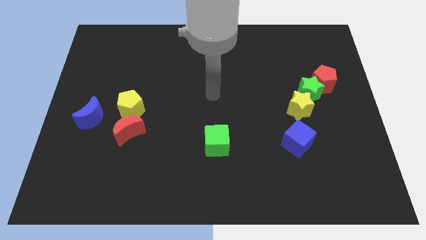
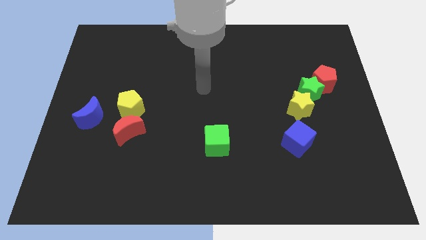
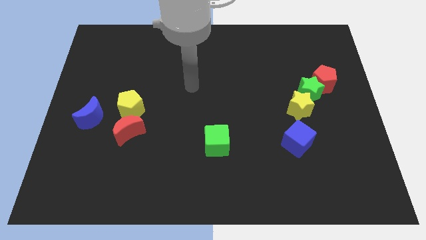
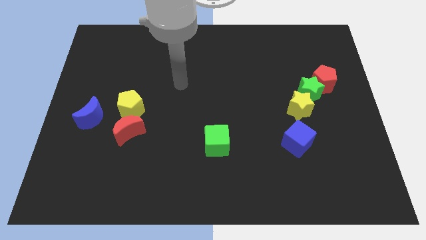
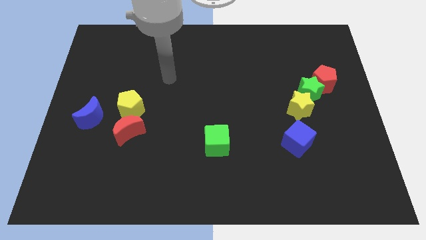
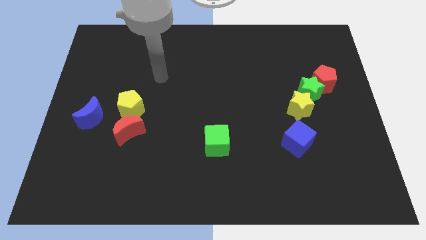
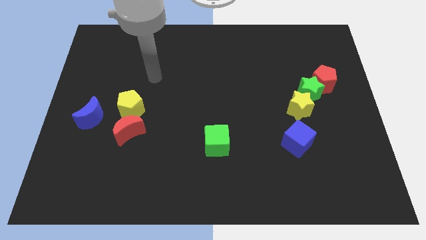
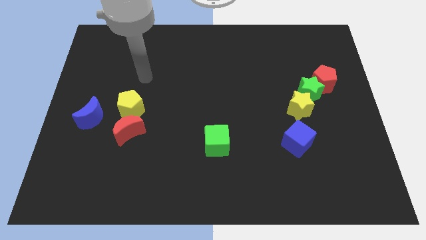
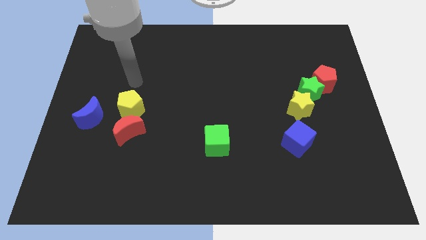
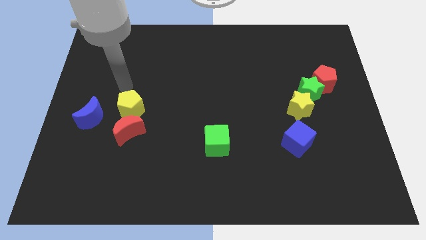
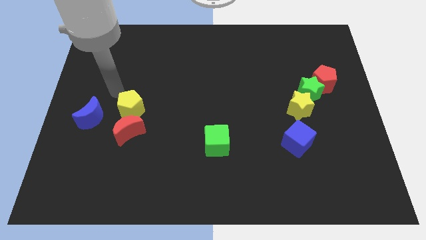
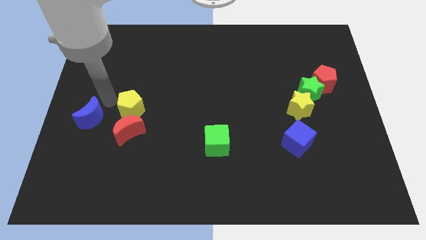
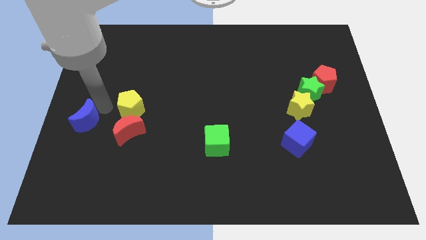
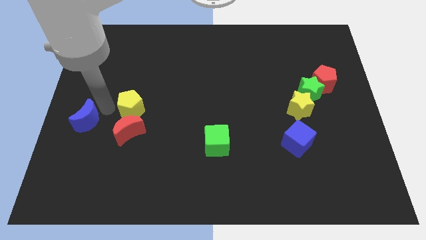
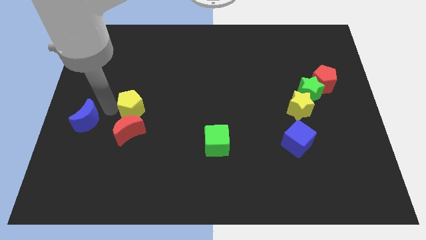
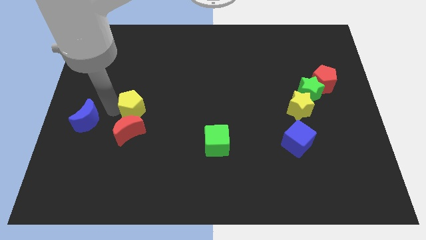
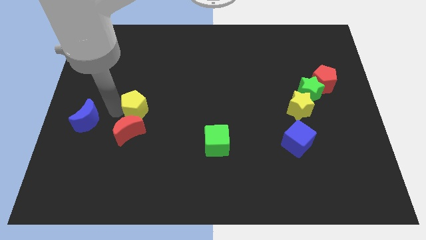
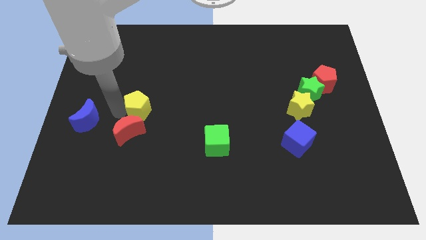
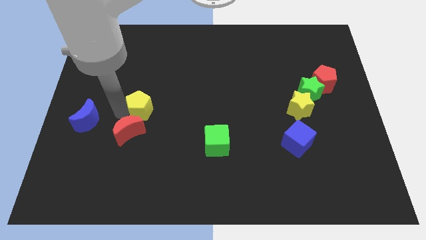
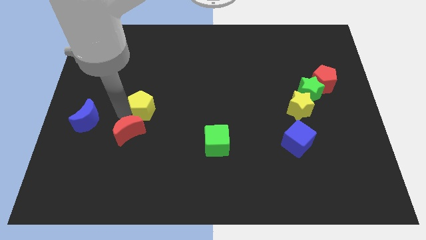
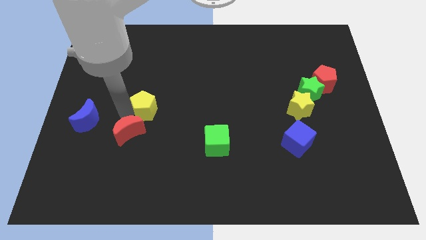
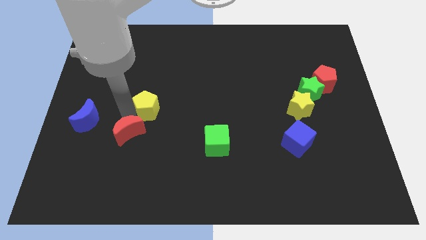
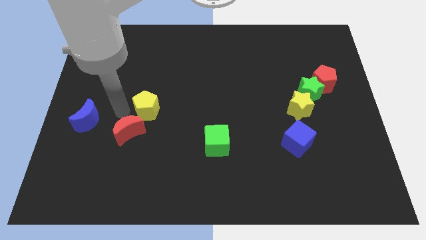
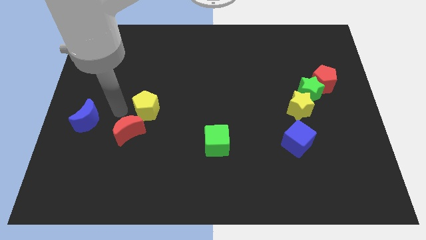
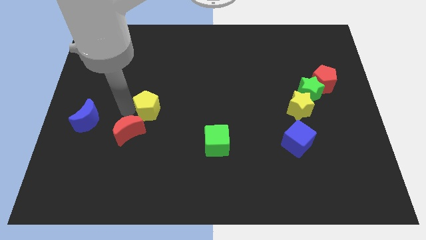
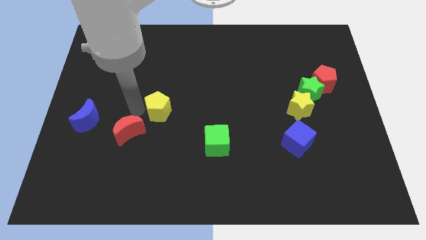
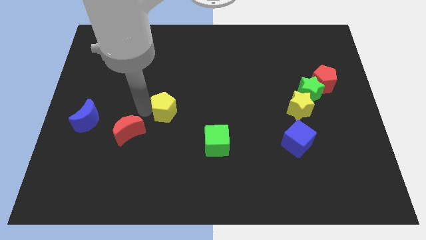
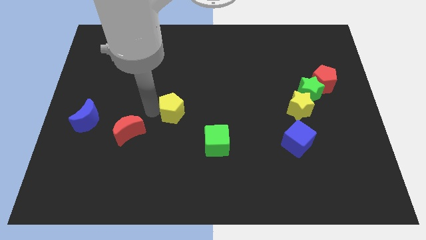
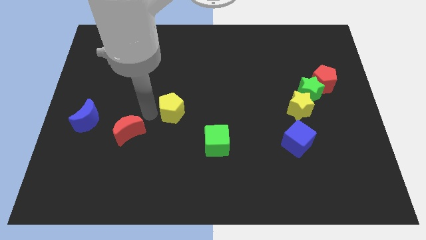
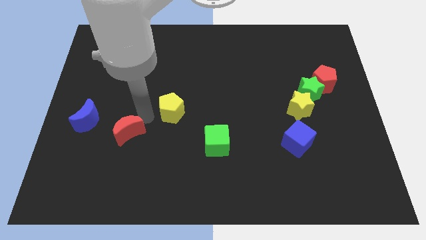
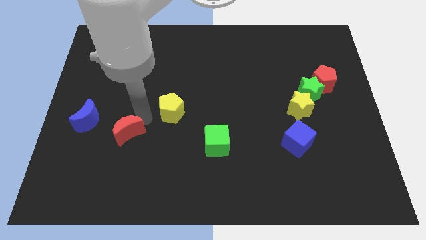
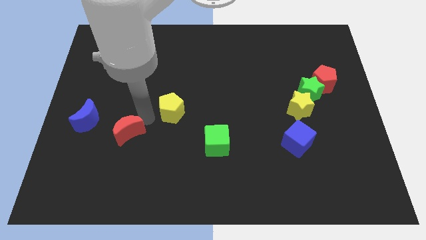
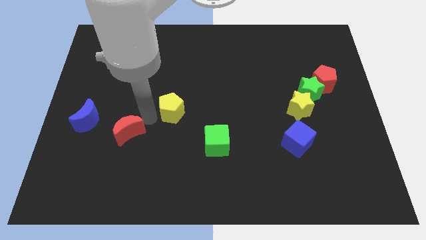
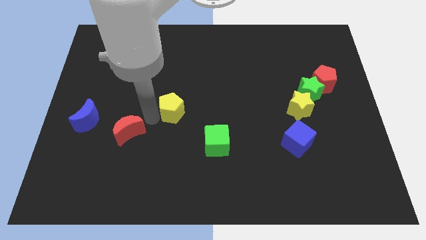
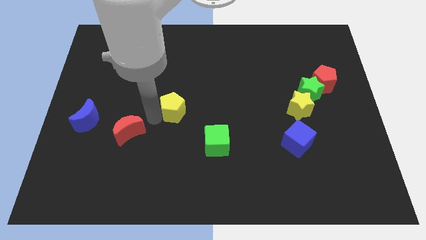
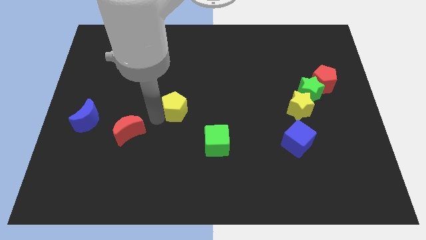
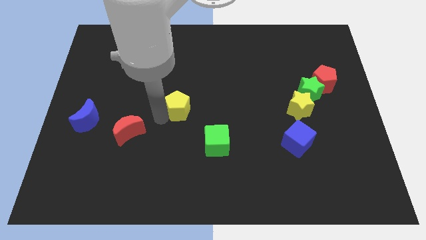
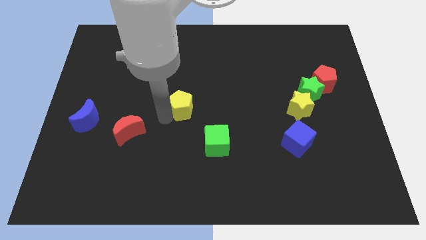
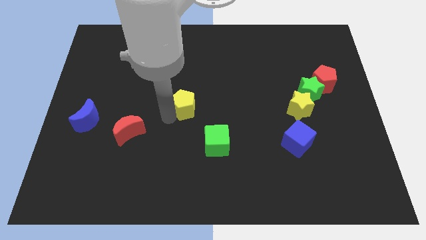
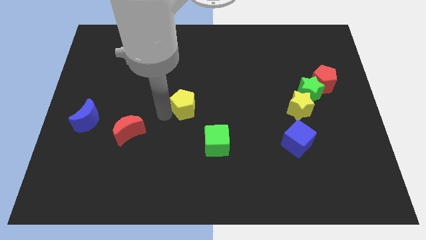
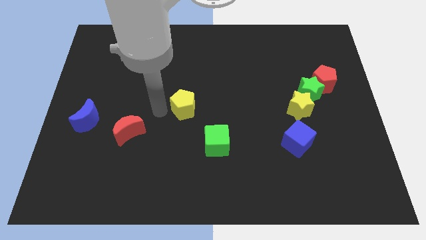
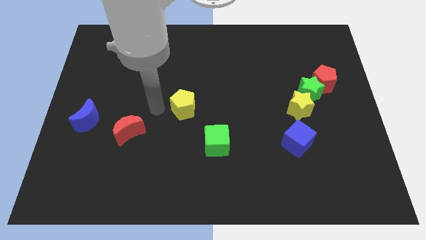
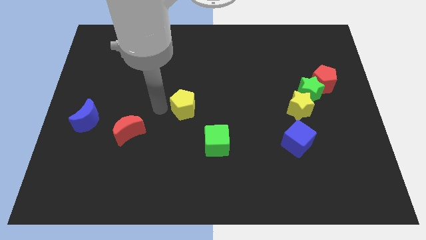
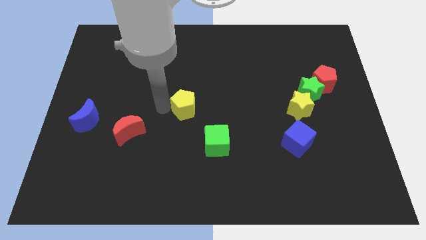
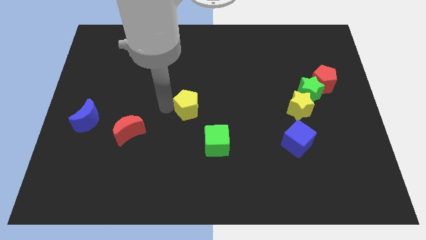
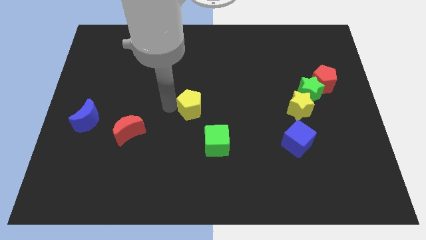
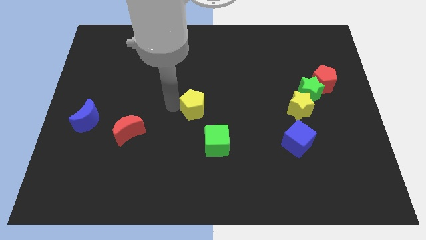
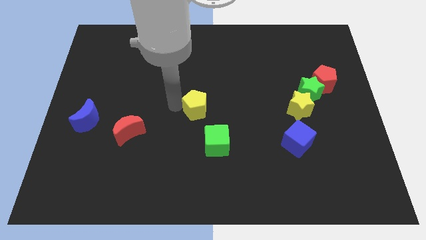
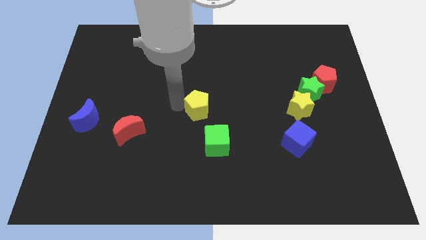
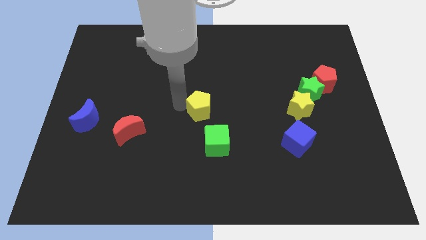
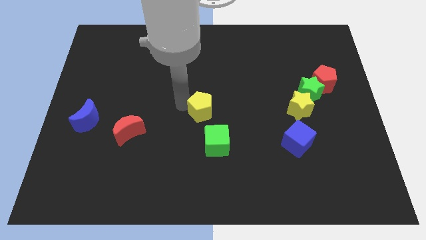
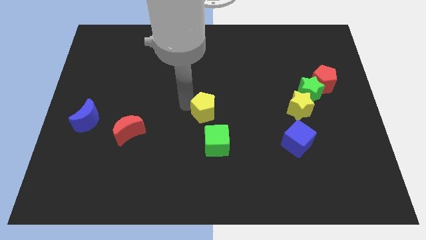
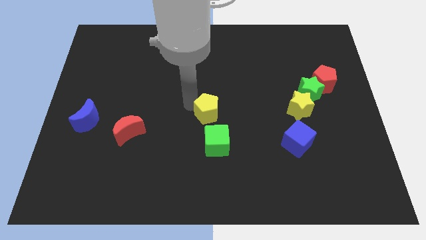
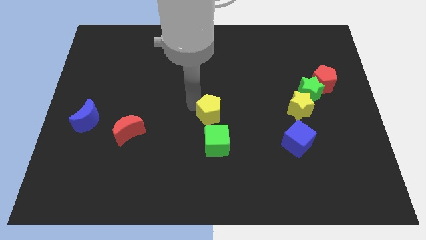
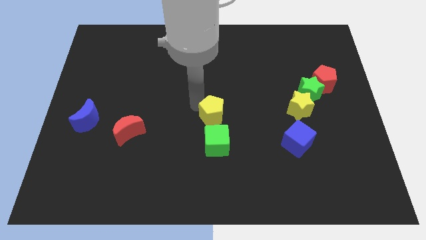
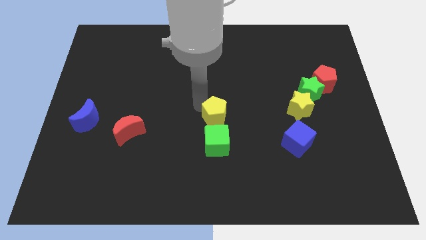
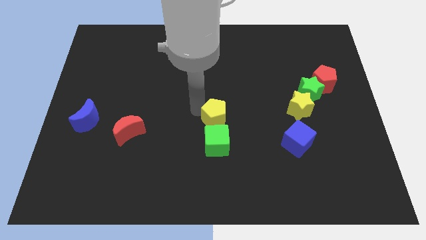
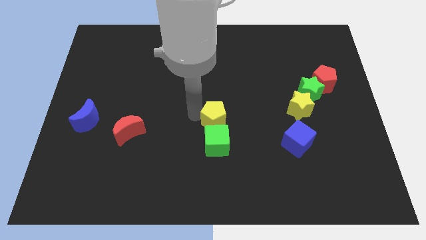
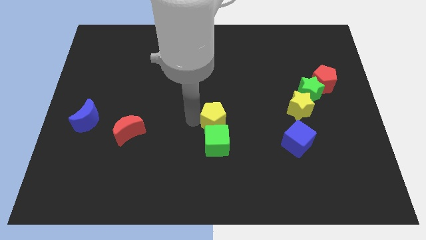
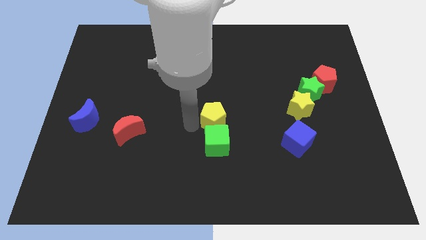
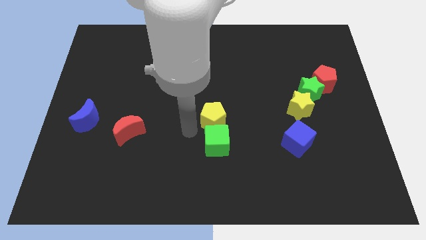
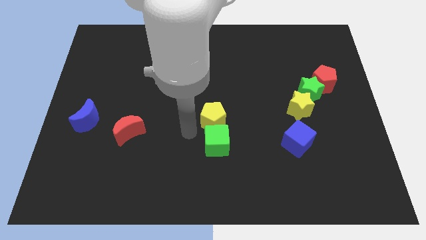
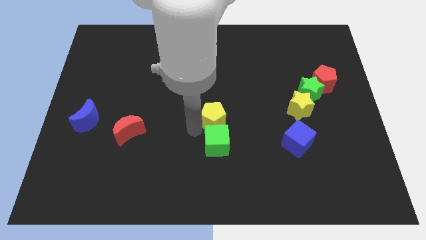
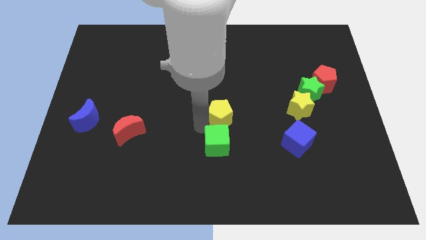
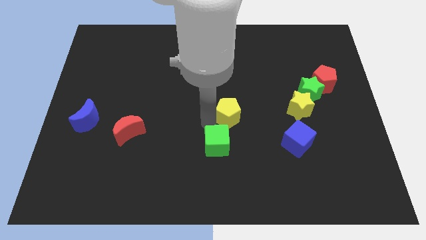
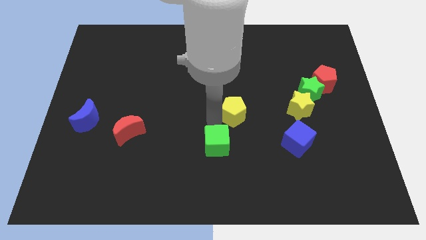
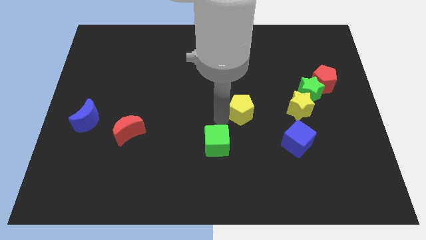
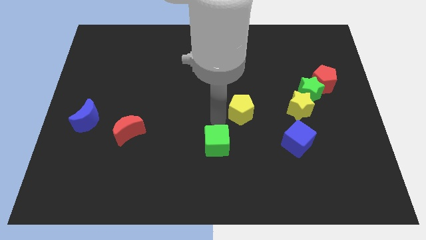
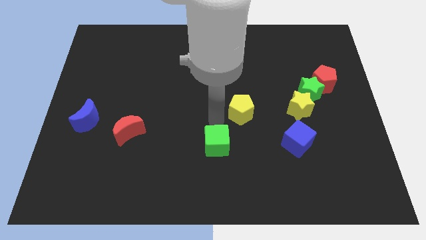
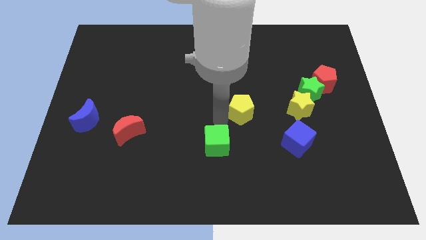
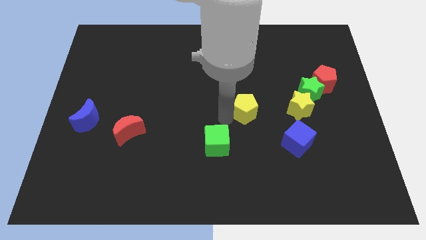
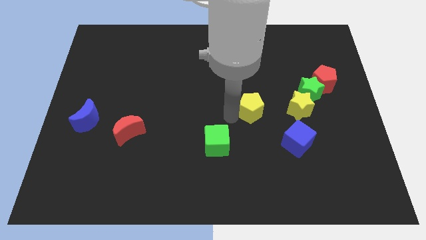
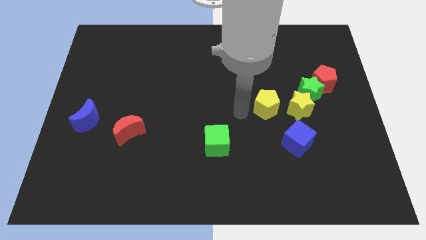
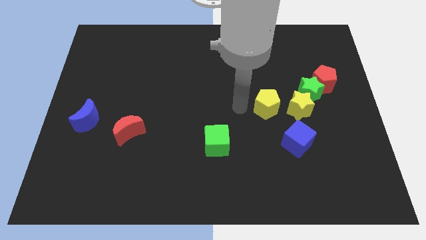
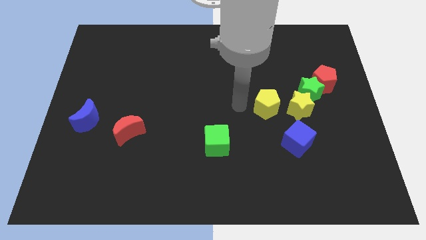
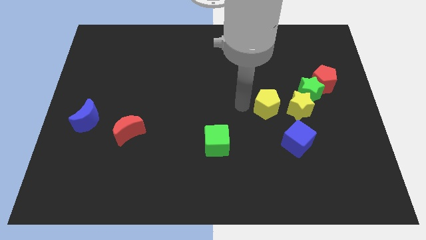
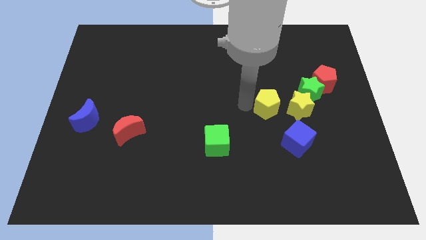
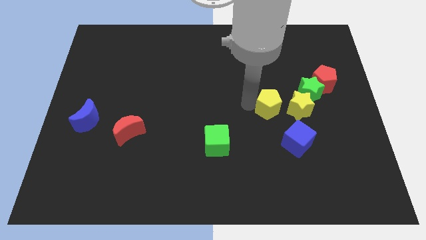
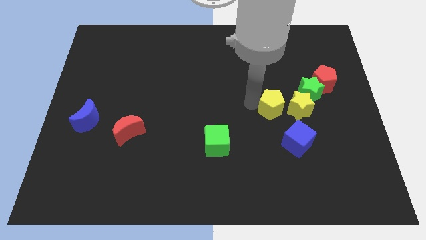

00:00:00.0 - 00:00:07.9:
put the yellow pentagon to the yellow star
